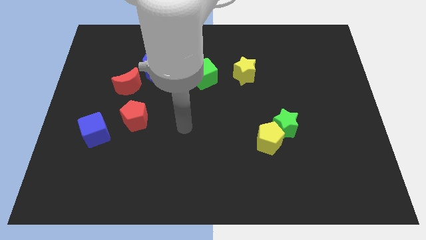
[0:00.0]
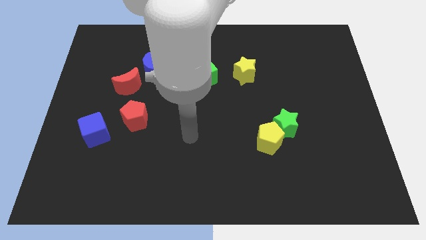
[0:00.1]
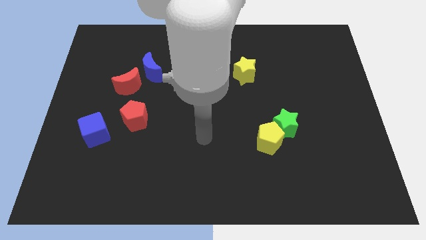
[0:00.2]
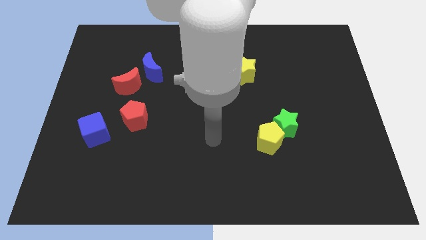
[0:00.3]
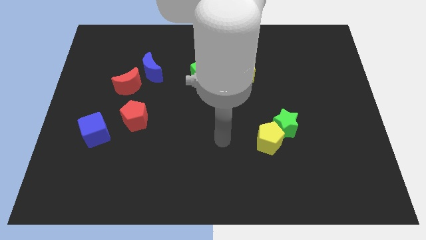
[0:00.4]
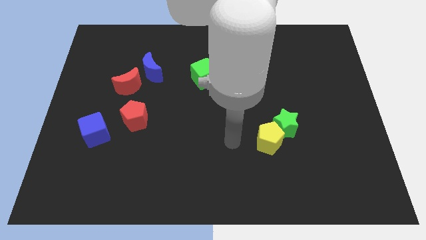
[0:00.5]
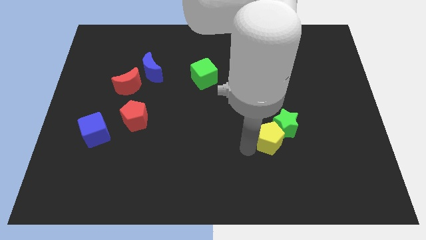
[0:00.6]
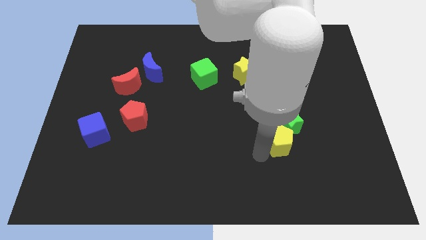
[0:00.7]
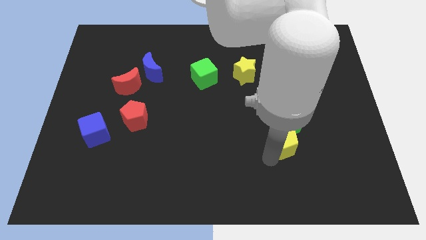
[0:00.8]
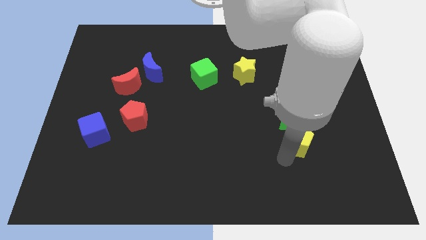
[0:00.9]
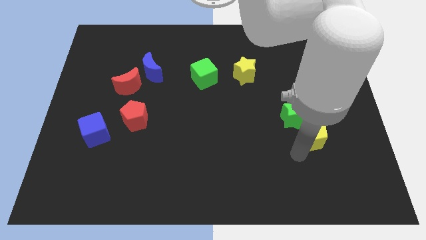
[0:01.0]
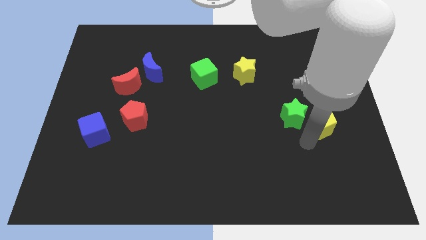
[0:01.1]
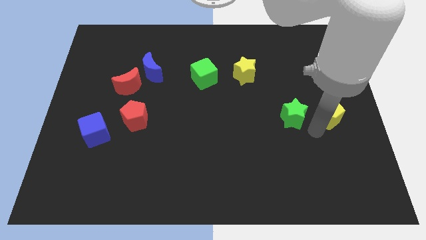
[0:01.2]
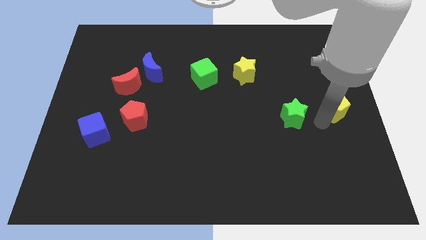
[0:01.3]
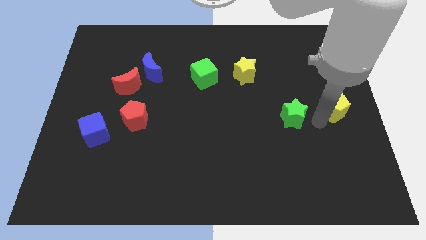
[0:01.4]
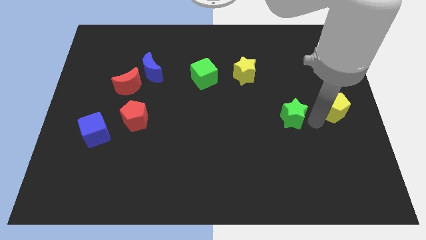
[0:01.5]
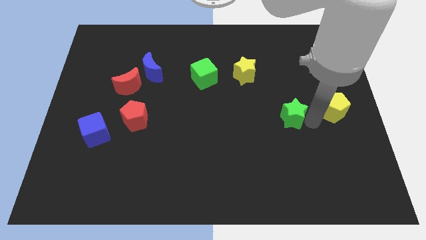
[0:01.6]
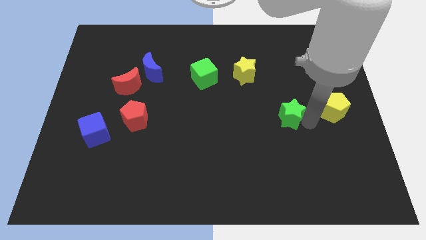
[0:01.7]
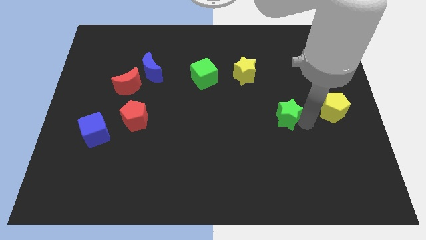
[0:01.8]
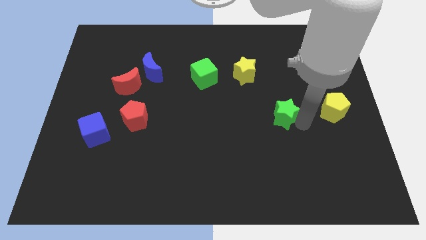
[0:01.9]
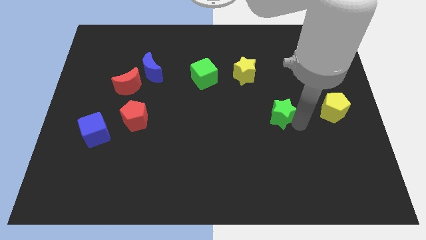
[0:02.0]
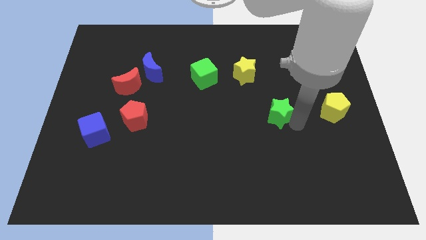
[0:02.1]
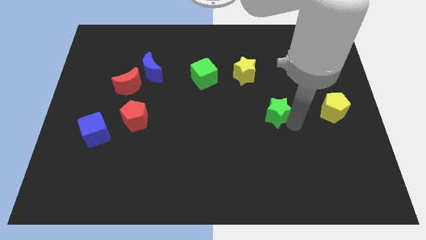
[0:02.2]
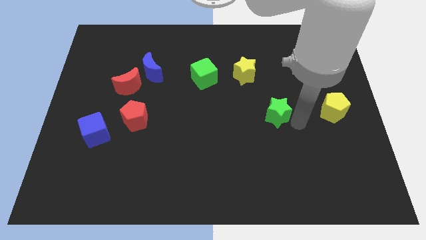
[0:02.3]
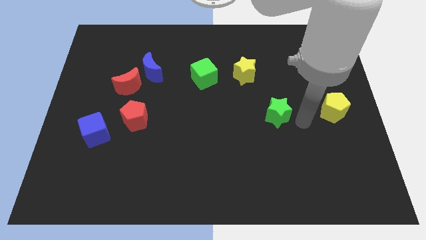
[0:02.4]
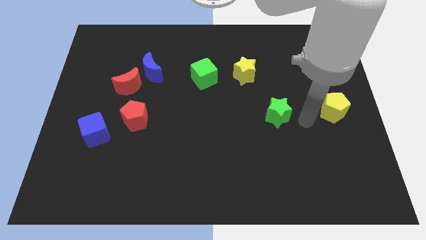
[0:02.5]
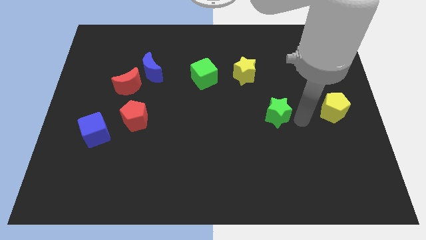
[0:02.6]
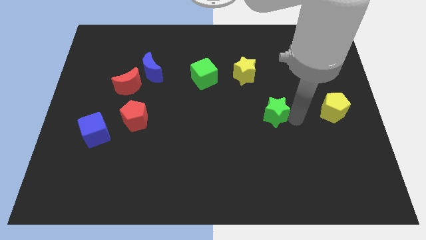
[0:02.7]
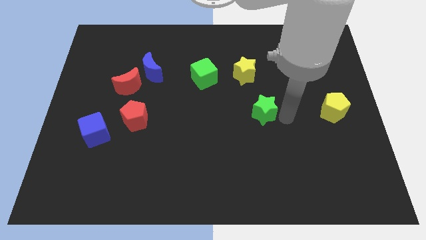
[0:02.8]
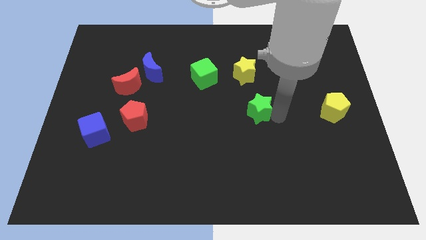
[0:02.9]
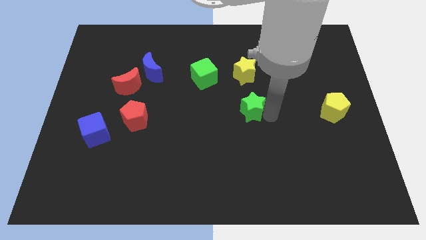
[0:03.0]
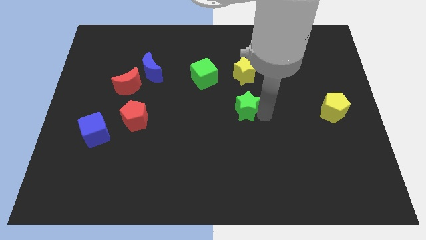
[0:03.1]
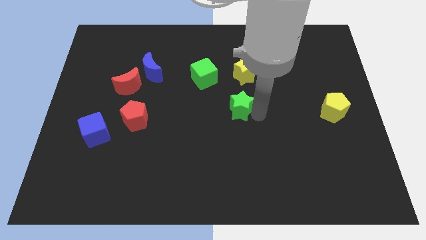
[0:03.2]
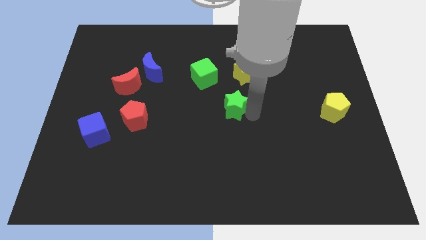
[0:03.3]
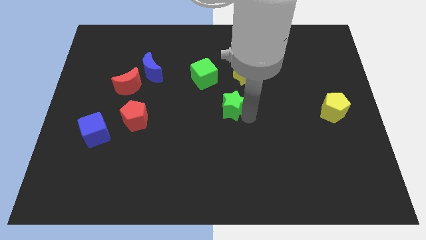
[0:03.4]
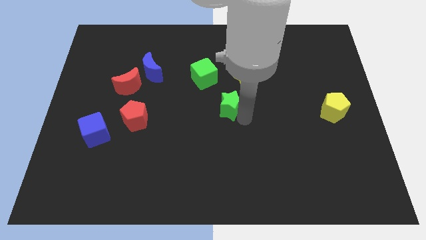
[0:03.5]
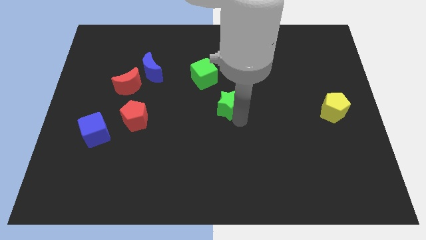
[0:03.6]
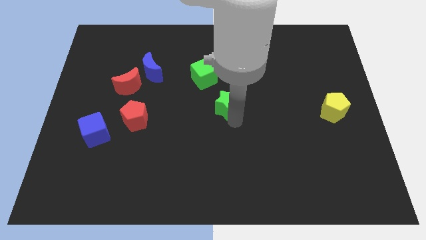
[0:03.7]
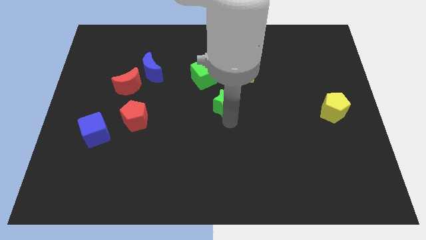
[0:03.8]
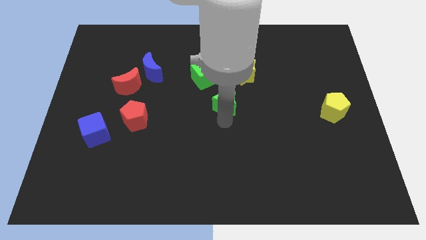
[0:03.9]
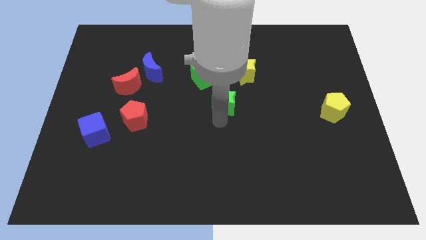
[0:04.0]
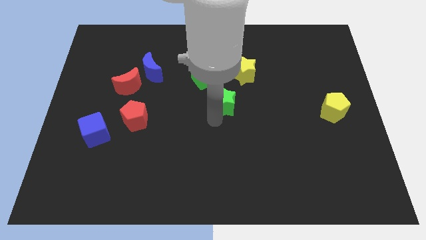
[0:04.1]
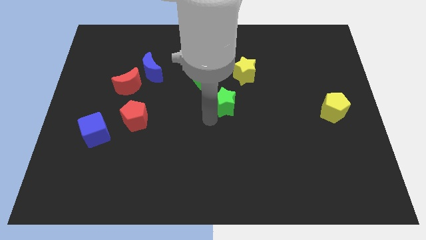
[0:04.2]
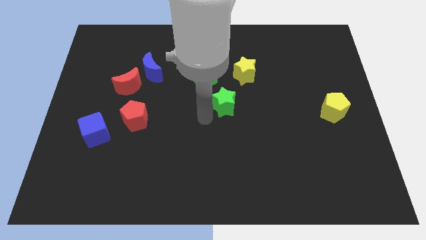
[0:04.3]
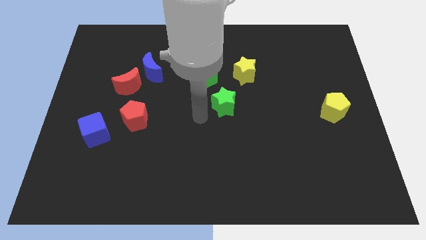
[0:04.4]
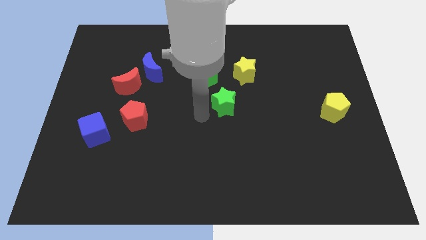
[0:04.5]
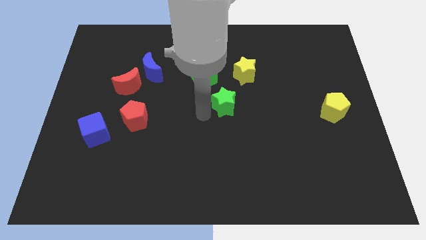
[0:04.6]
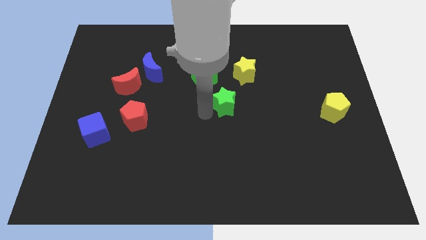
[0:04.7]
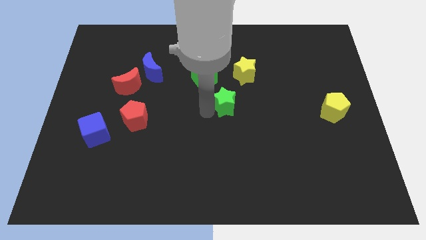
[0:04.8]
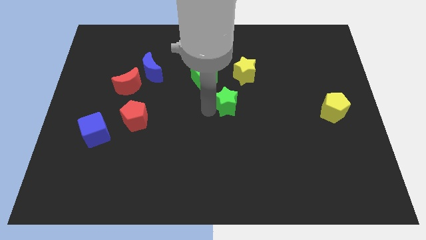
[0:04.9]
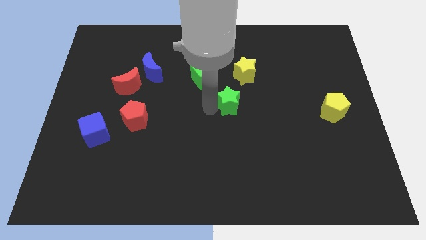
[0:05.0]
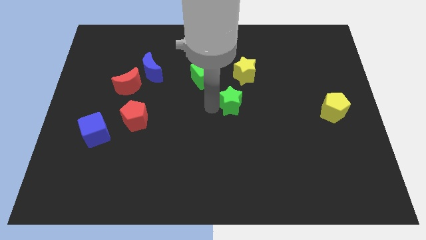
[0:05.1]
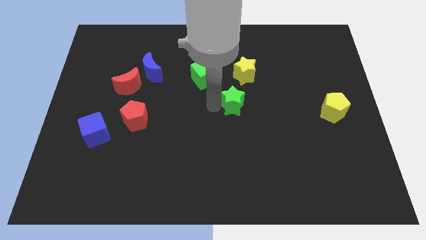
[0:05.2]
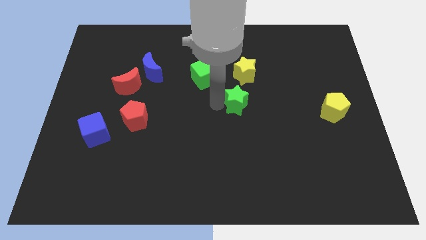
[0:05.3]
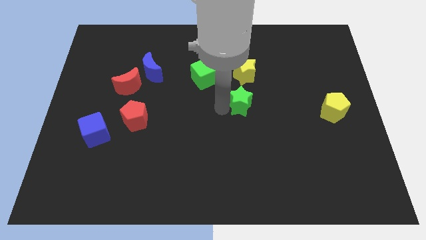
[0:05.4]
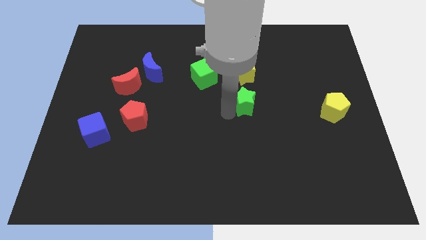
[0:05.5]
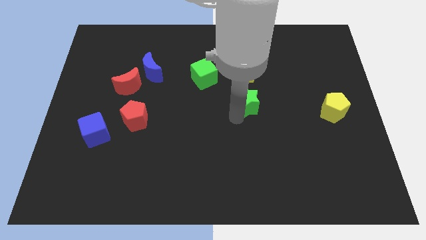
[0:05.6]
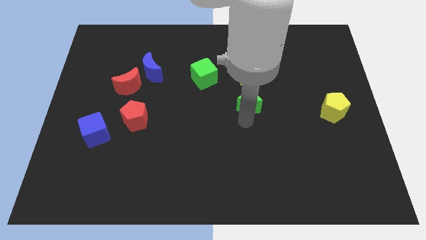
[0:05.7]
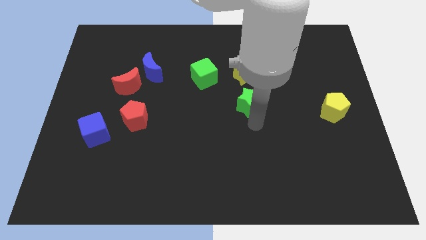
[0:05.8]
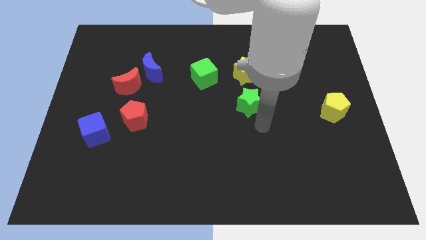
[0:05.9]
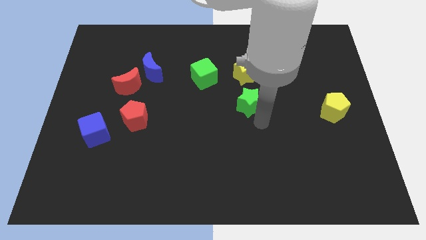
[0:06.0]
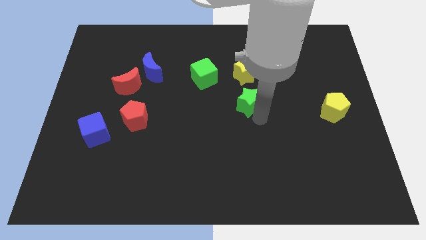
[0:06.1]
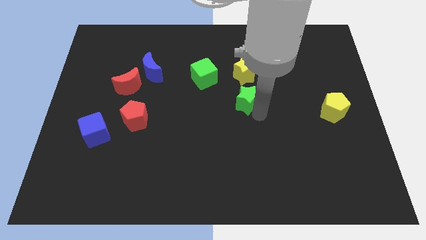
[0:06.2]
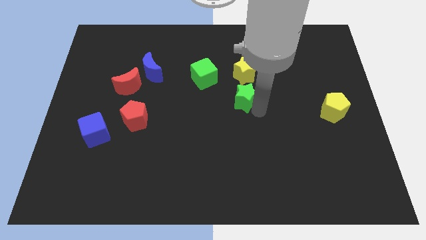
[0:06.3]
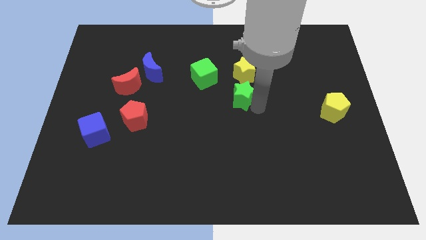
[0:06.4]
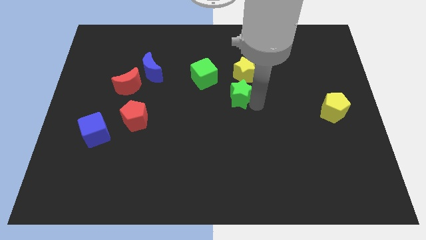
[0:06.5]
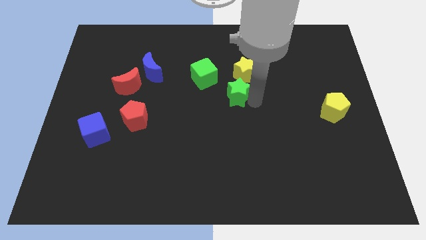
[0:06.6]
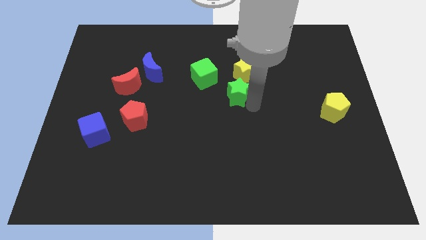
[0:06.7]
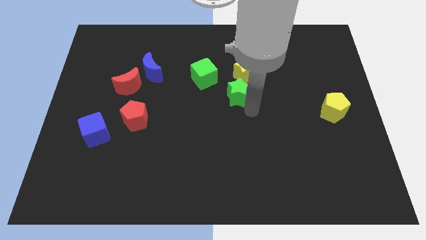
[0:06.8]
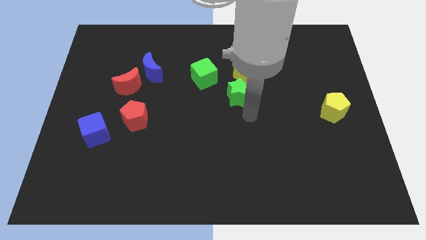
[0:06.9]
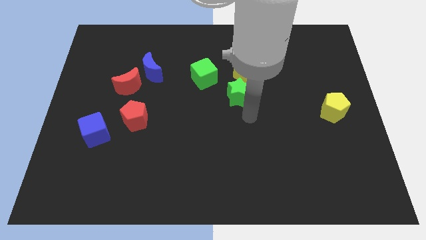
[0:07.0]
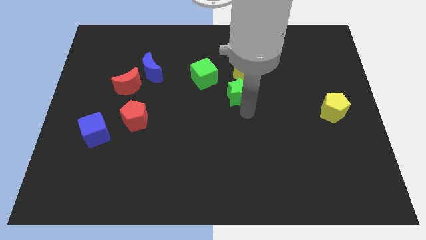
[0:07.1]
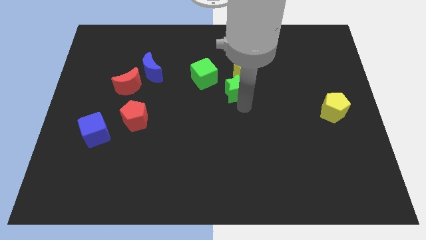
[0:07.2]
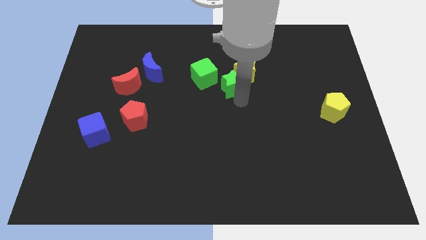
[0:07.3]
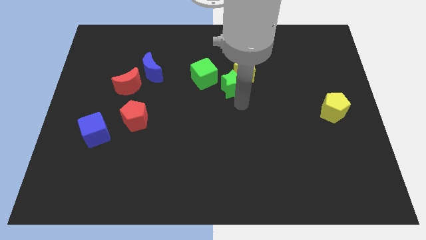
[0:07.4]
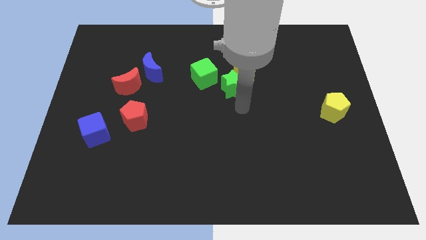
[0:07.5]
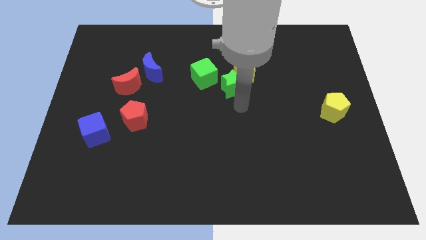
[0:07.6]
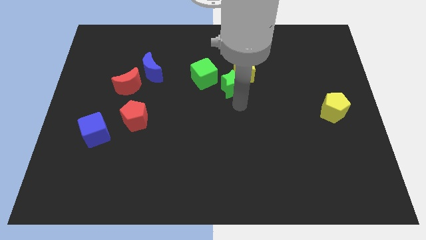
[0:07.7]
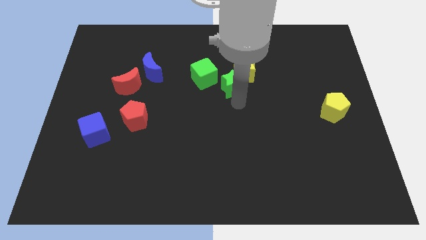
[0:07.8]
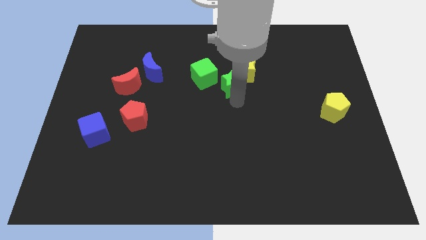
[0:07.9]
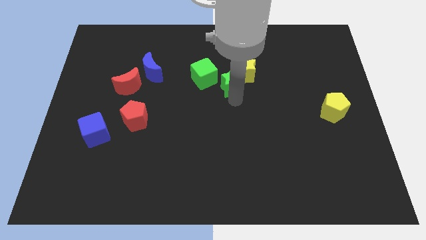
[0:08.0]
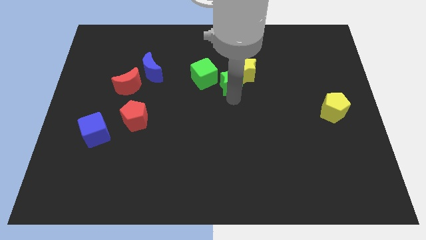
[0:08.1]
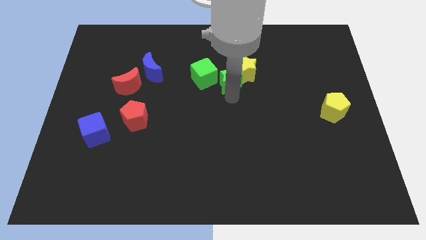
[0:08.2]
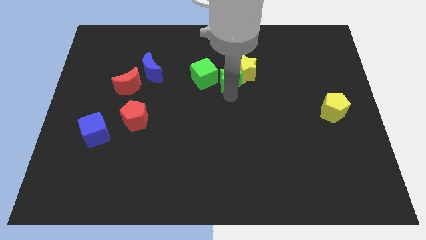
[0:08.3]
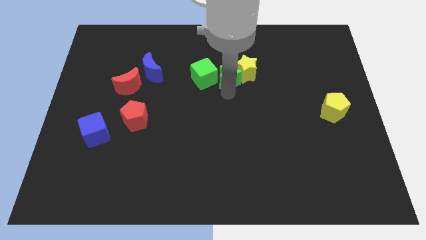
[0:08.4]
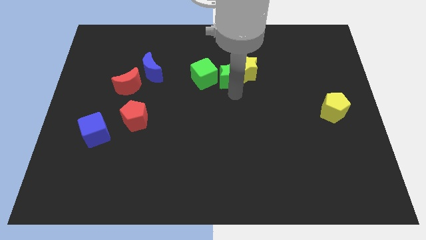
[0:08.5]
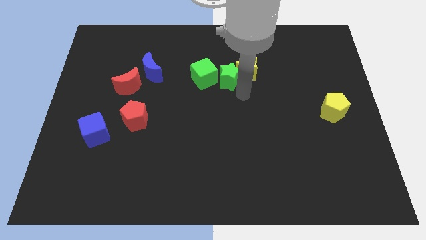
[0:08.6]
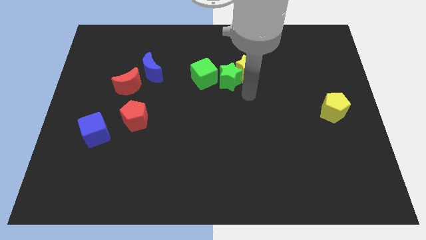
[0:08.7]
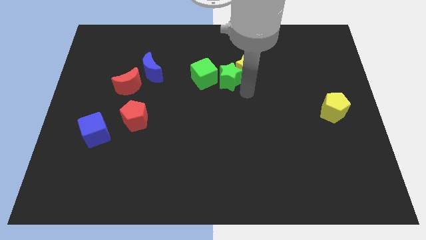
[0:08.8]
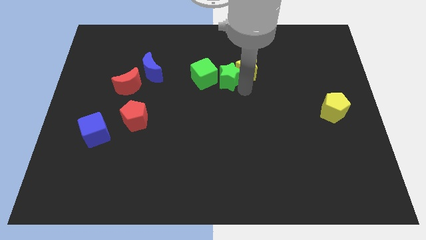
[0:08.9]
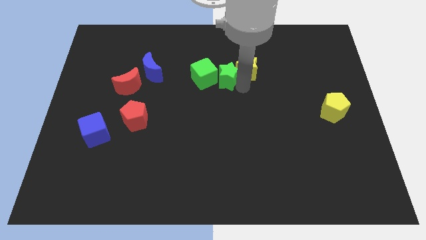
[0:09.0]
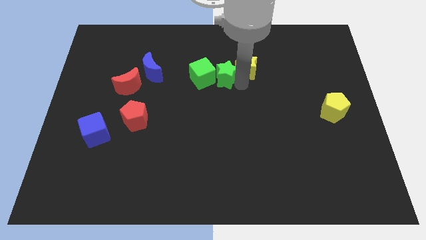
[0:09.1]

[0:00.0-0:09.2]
push the green star upwards and left diagonally
